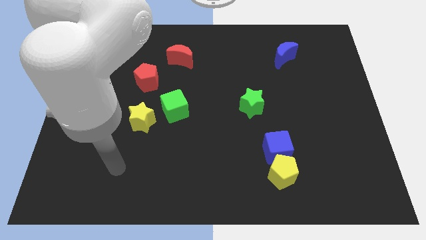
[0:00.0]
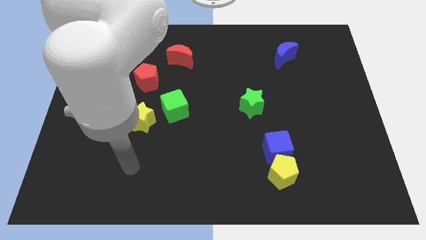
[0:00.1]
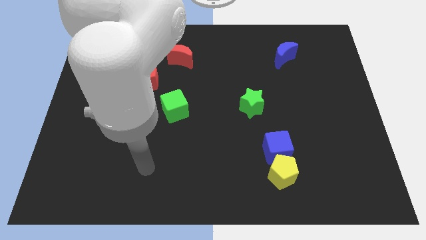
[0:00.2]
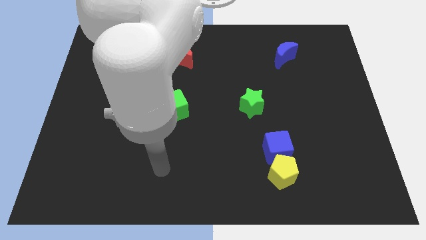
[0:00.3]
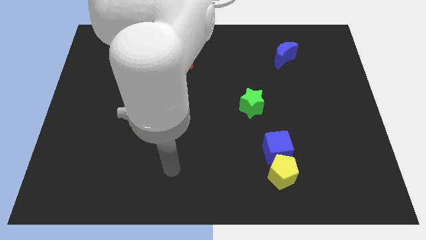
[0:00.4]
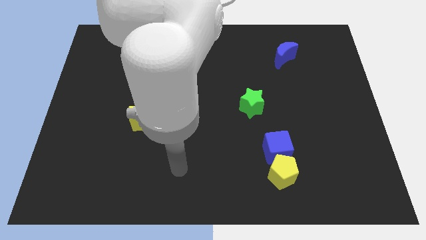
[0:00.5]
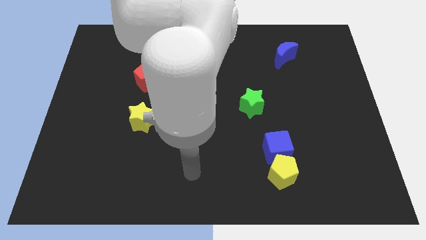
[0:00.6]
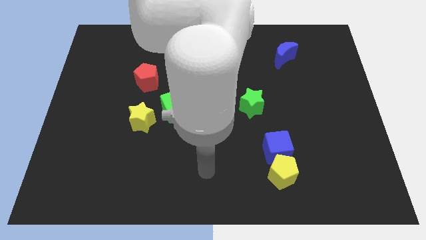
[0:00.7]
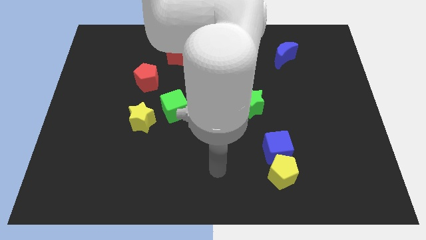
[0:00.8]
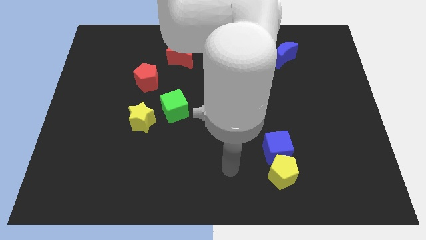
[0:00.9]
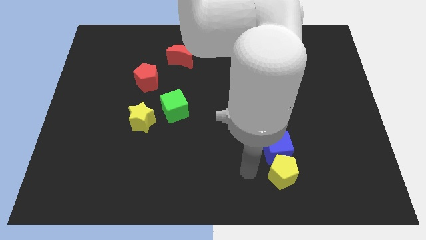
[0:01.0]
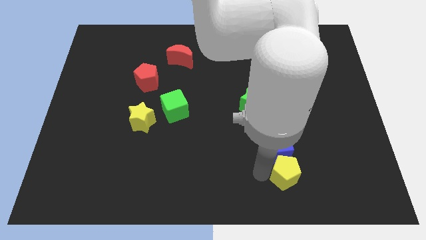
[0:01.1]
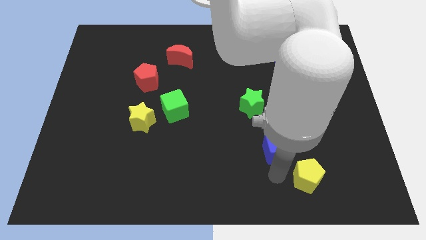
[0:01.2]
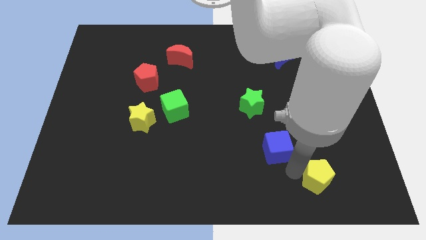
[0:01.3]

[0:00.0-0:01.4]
move the blue cube away from the yellow pentagon

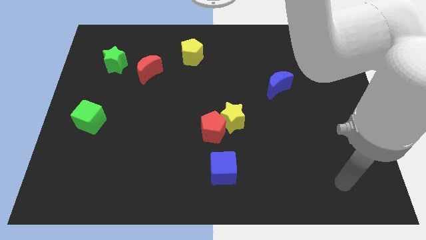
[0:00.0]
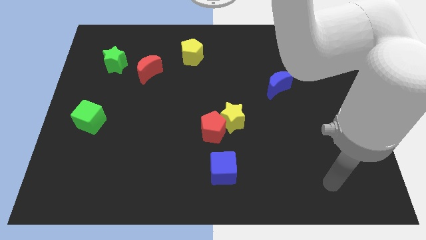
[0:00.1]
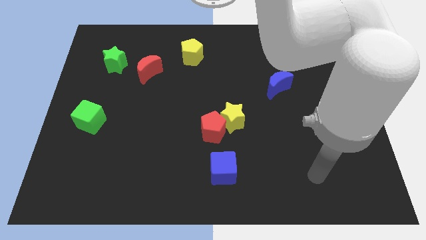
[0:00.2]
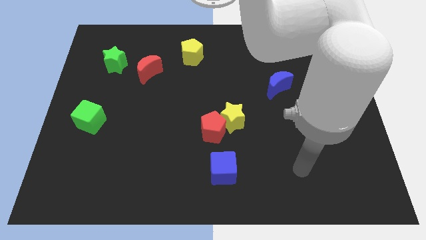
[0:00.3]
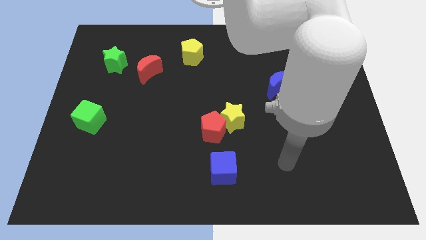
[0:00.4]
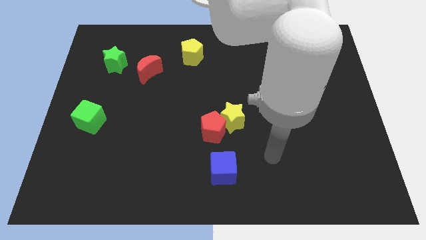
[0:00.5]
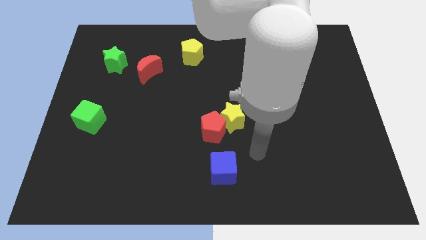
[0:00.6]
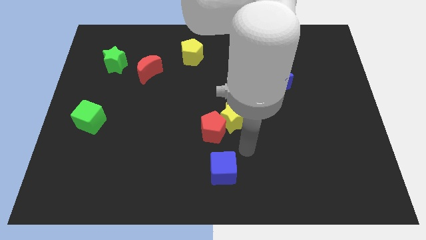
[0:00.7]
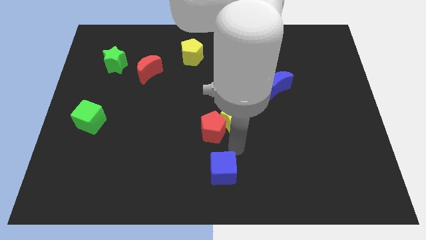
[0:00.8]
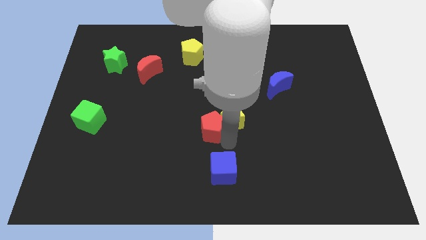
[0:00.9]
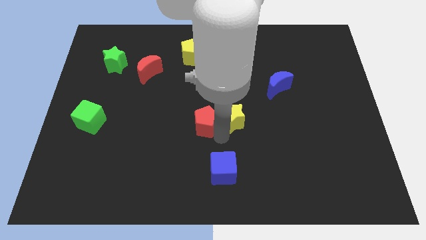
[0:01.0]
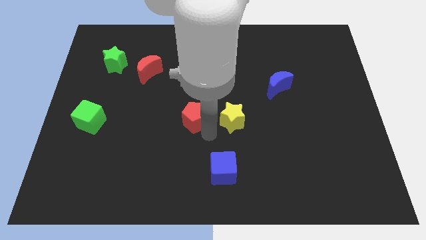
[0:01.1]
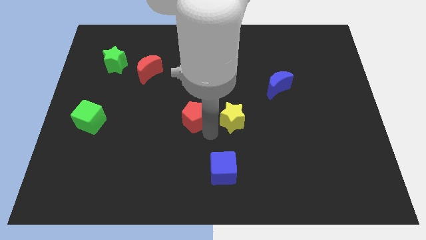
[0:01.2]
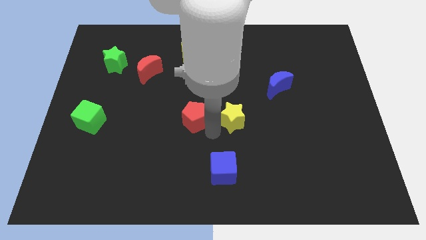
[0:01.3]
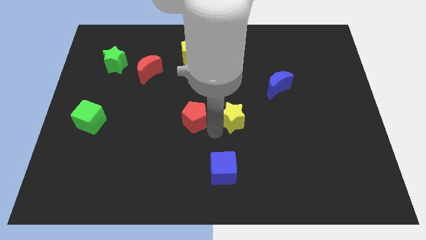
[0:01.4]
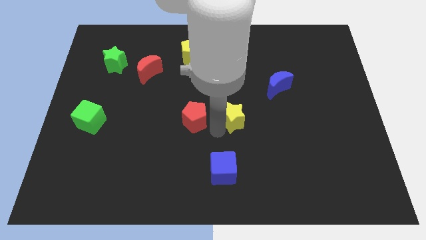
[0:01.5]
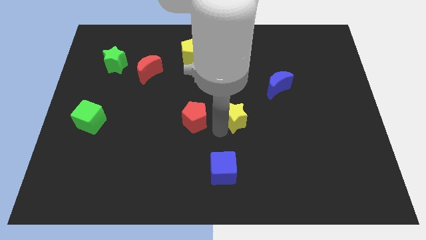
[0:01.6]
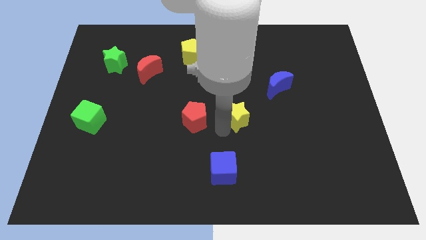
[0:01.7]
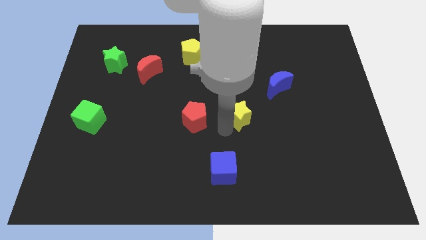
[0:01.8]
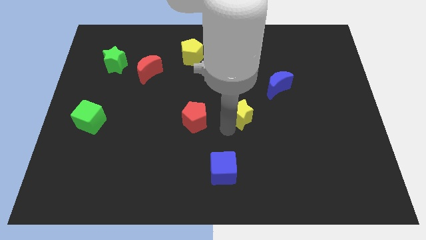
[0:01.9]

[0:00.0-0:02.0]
separate the yellow star from the red pentagon

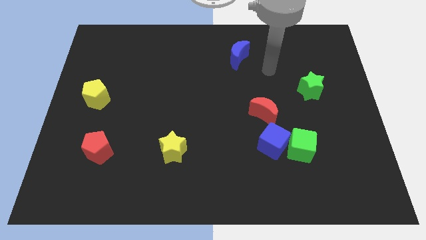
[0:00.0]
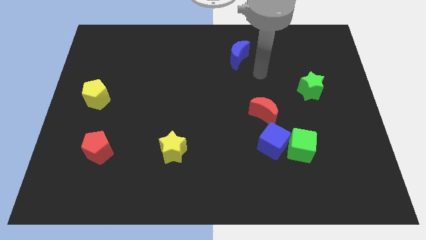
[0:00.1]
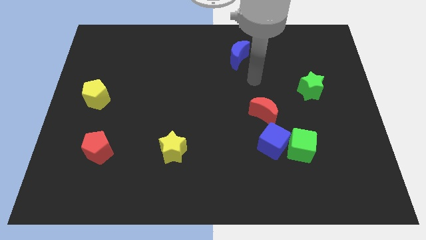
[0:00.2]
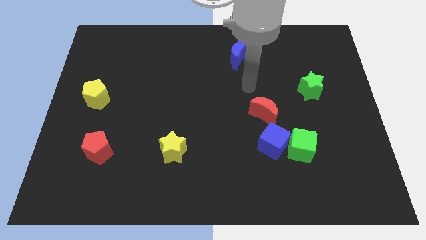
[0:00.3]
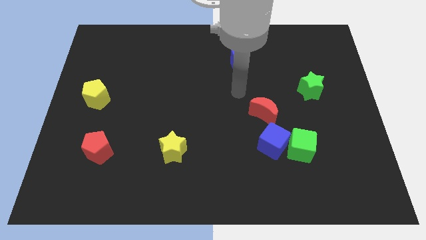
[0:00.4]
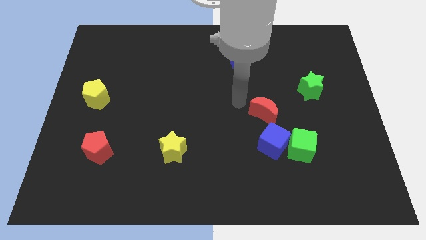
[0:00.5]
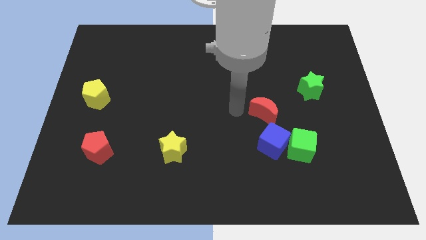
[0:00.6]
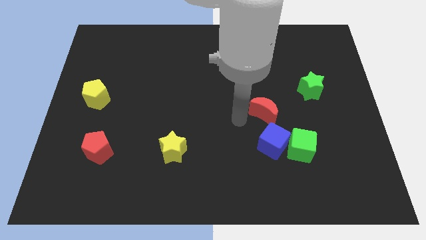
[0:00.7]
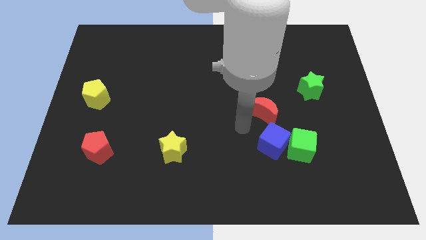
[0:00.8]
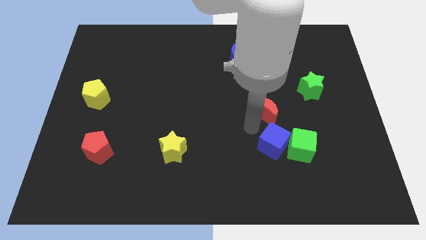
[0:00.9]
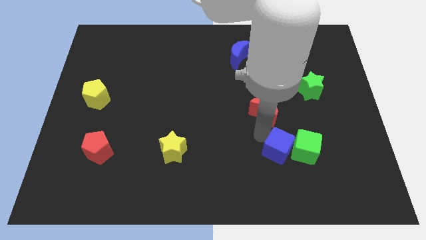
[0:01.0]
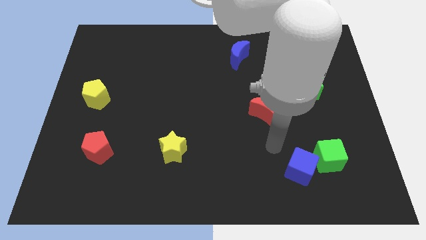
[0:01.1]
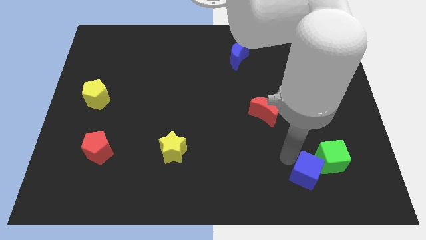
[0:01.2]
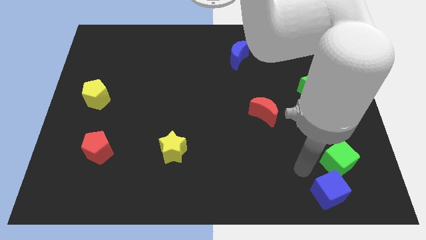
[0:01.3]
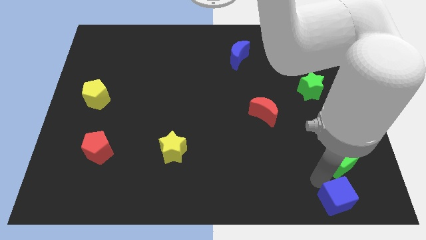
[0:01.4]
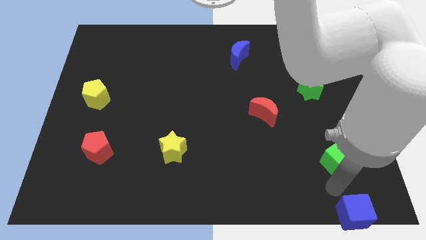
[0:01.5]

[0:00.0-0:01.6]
separate the green cube from the blue cube

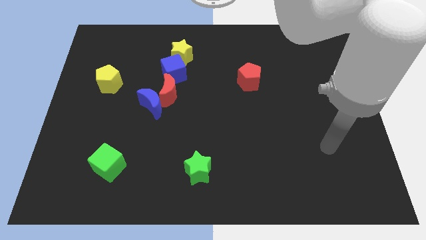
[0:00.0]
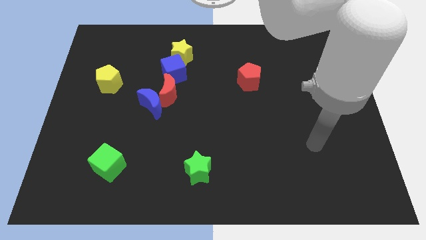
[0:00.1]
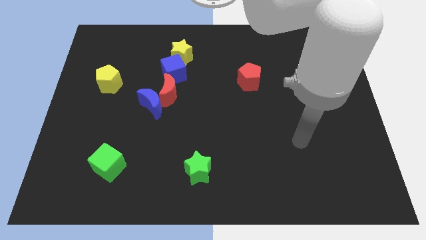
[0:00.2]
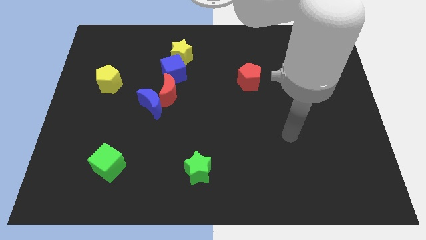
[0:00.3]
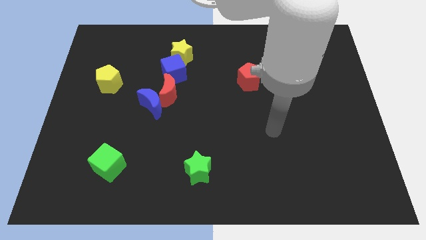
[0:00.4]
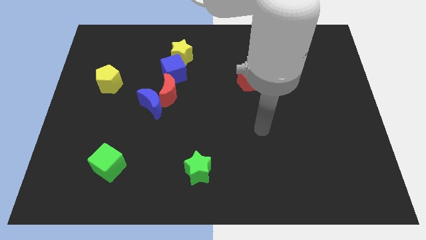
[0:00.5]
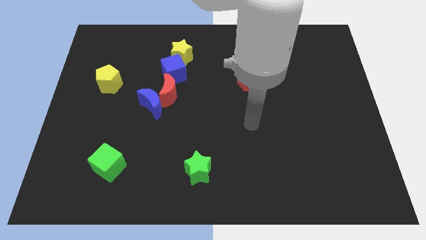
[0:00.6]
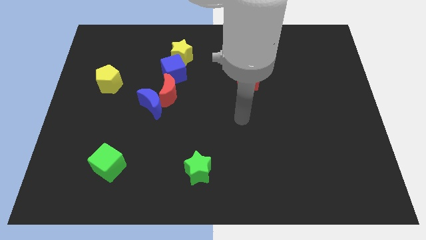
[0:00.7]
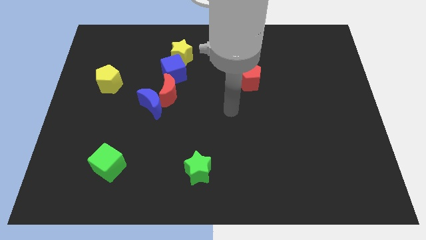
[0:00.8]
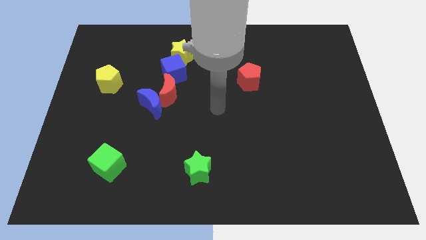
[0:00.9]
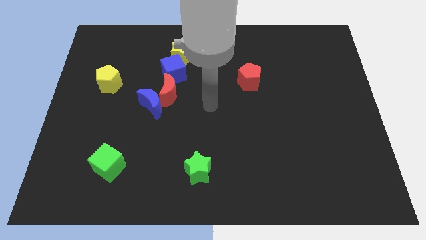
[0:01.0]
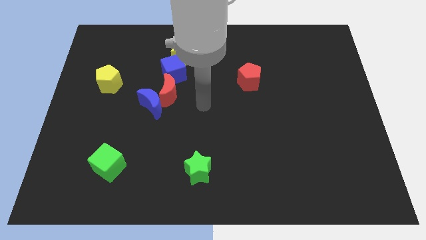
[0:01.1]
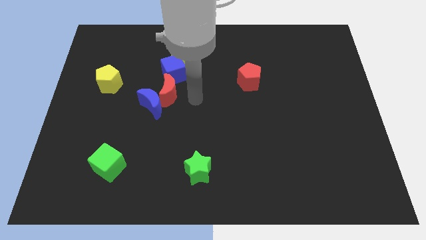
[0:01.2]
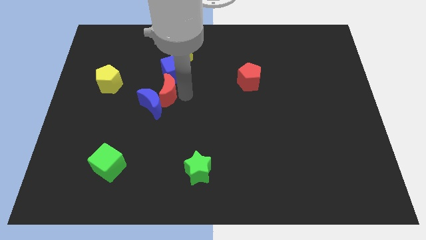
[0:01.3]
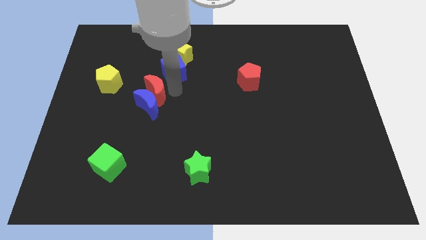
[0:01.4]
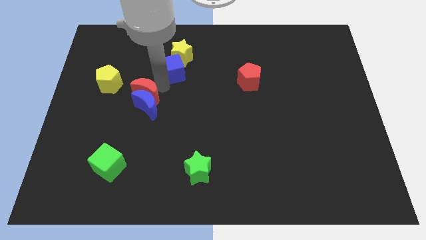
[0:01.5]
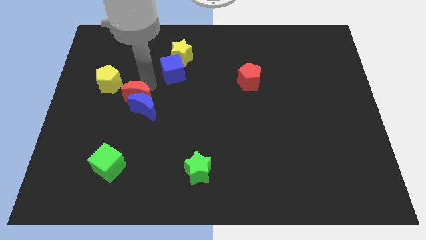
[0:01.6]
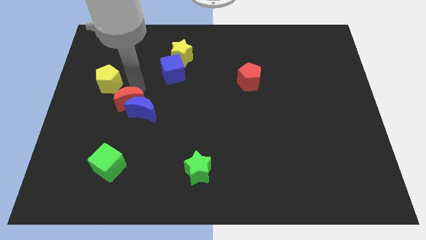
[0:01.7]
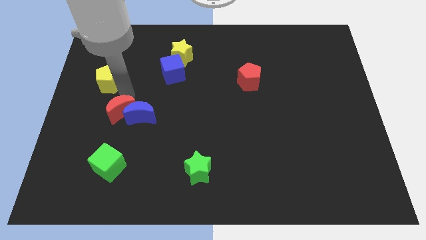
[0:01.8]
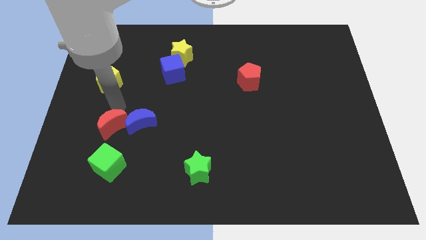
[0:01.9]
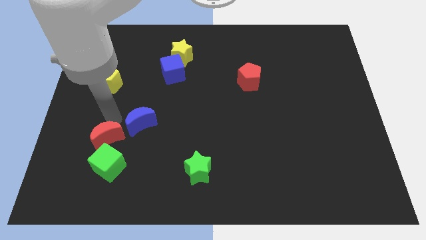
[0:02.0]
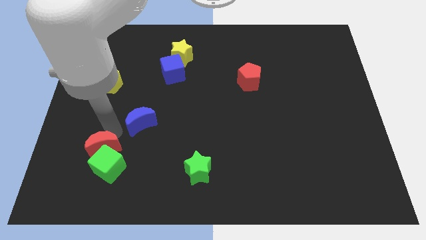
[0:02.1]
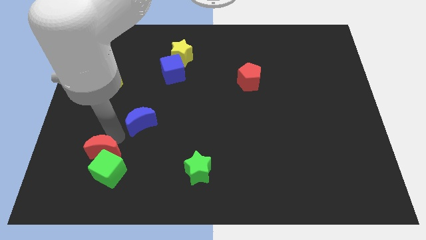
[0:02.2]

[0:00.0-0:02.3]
separate the blue moon from the red moon

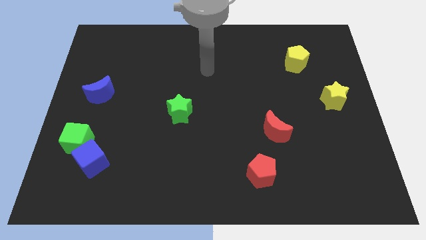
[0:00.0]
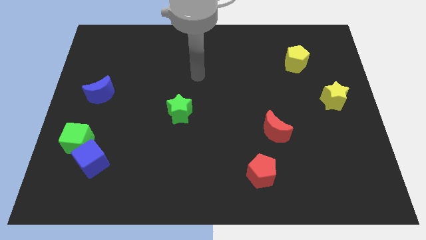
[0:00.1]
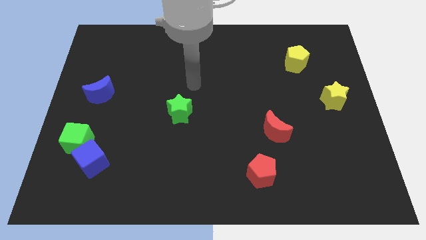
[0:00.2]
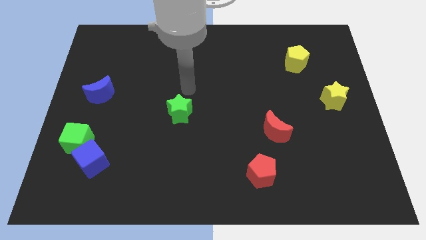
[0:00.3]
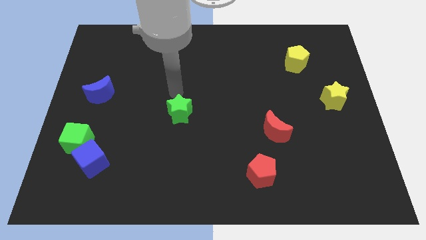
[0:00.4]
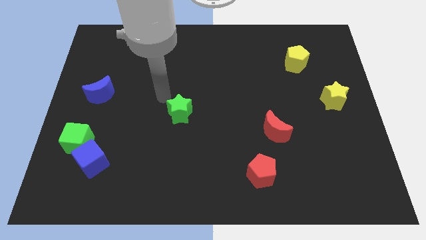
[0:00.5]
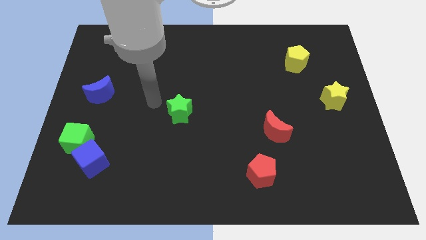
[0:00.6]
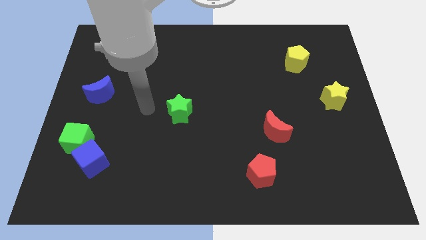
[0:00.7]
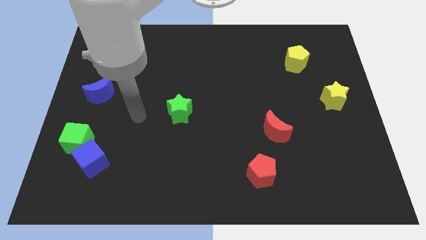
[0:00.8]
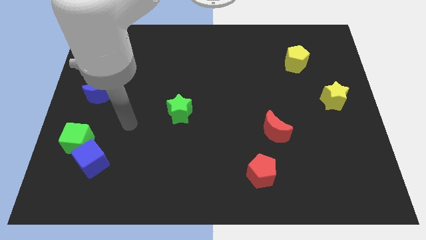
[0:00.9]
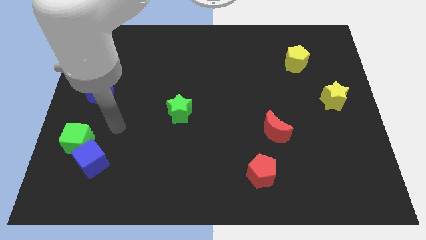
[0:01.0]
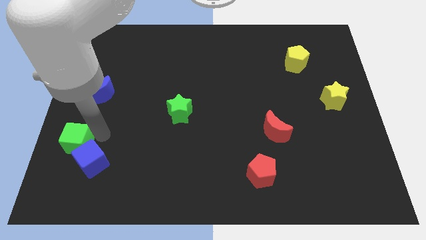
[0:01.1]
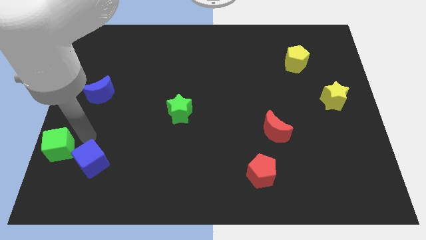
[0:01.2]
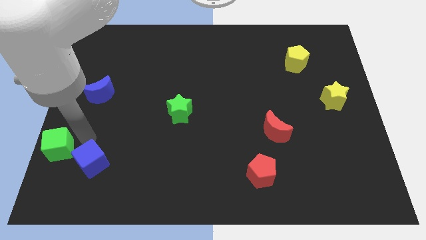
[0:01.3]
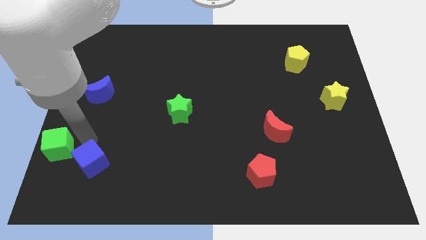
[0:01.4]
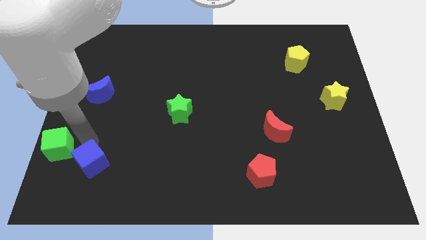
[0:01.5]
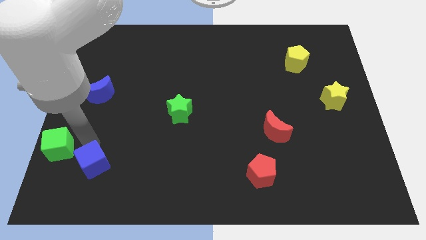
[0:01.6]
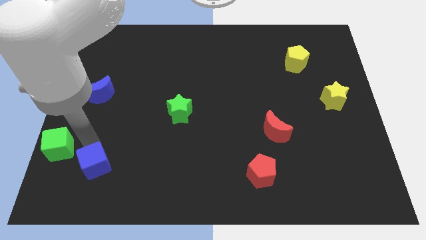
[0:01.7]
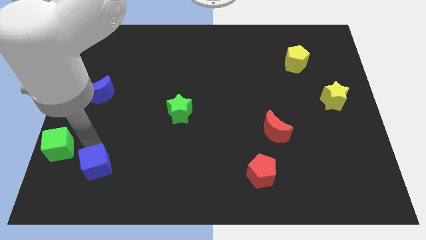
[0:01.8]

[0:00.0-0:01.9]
separate the blue cube from the green cube

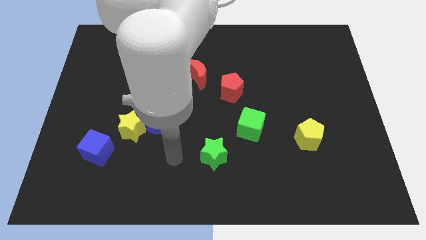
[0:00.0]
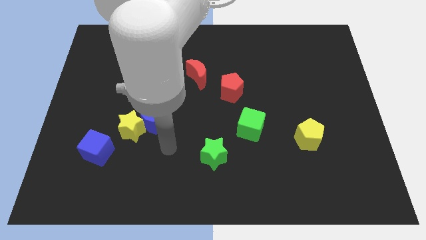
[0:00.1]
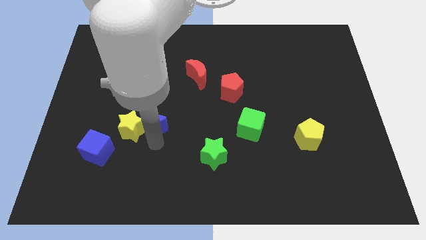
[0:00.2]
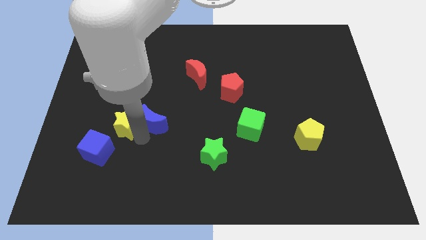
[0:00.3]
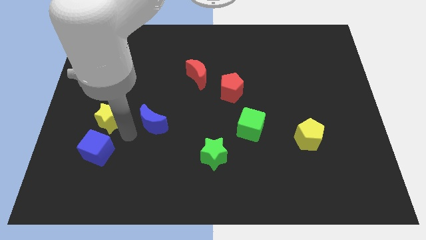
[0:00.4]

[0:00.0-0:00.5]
move the blue moon away from the yellow star
